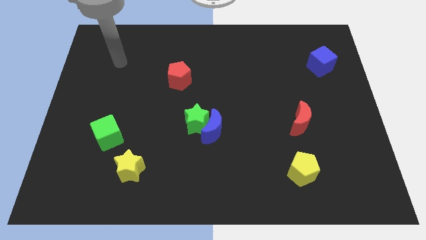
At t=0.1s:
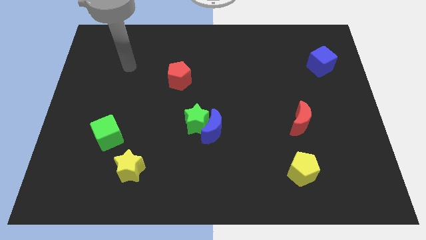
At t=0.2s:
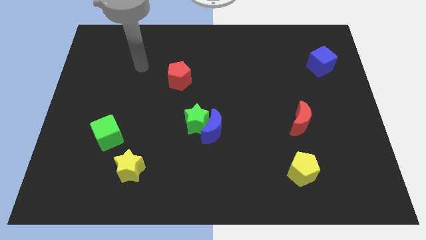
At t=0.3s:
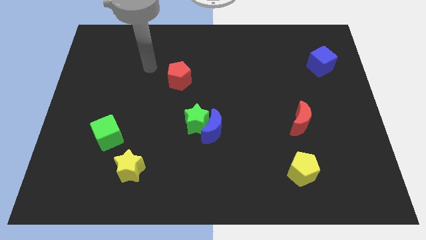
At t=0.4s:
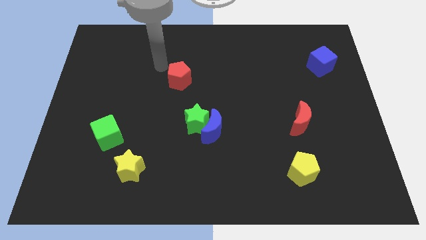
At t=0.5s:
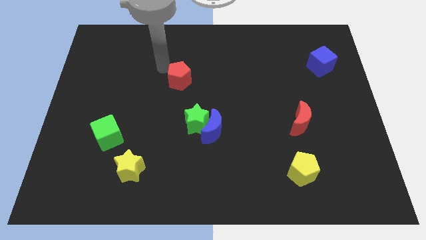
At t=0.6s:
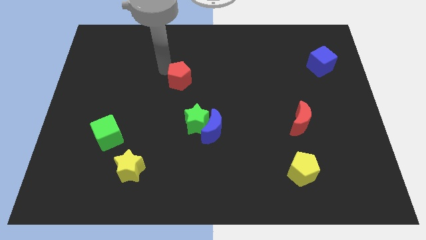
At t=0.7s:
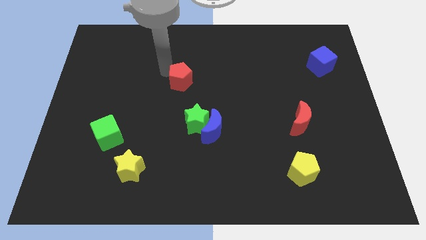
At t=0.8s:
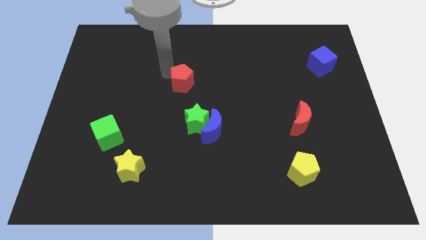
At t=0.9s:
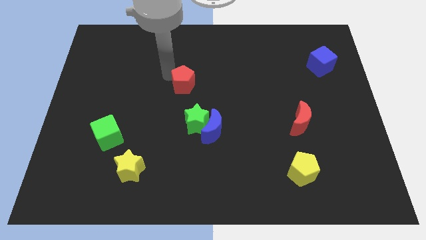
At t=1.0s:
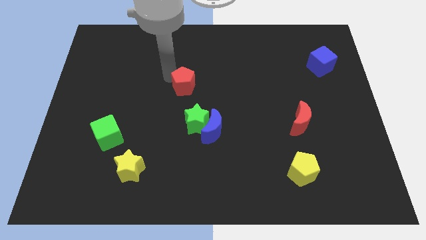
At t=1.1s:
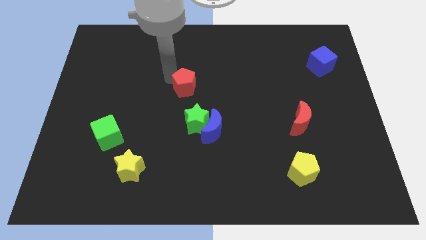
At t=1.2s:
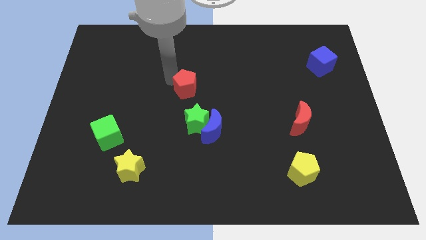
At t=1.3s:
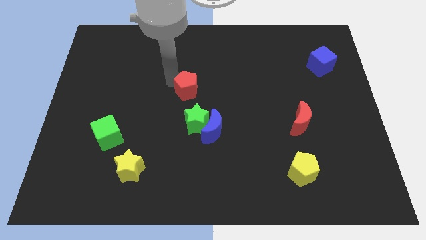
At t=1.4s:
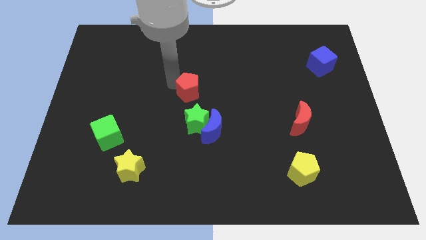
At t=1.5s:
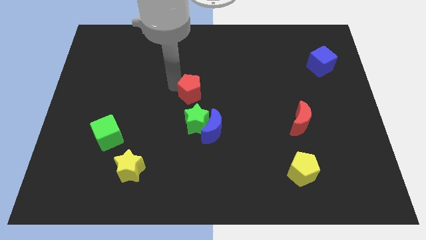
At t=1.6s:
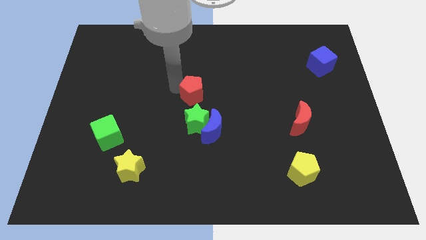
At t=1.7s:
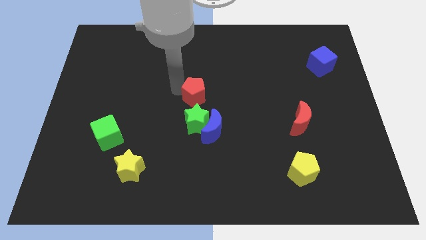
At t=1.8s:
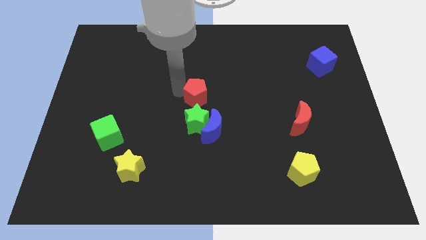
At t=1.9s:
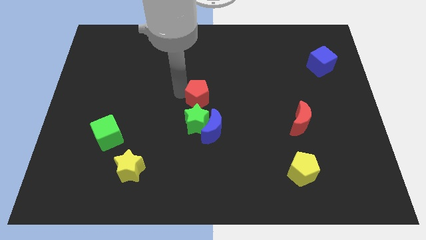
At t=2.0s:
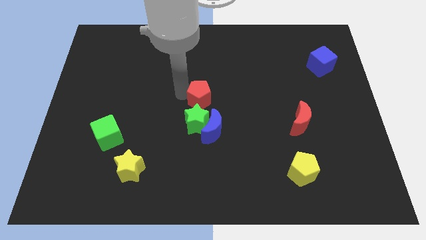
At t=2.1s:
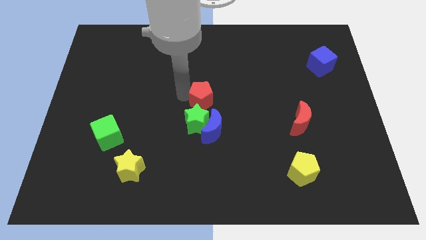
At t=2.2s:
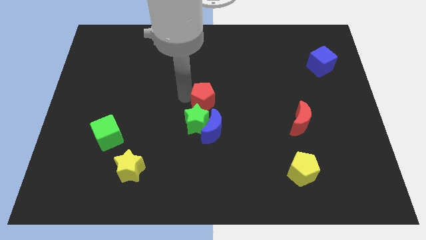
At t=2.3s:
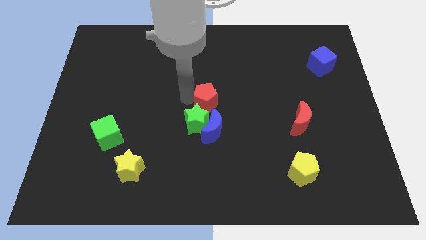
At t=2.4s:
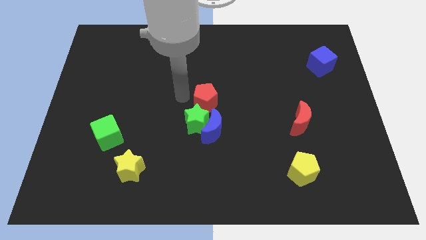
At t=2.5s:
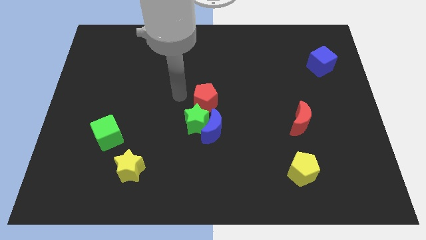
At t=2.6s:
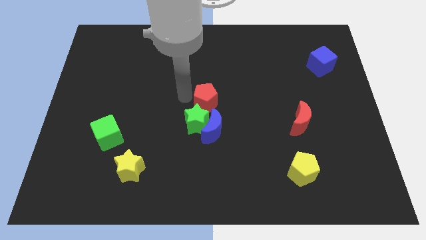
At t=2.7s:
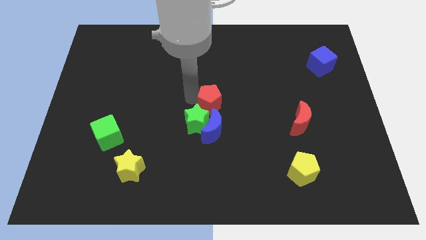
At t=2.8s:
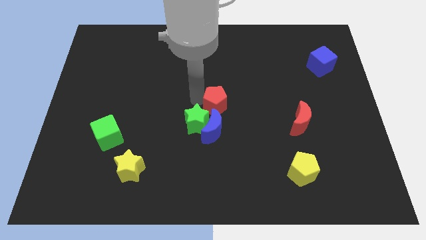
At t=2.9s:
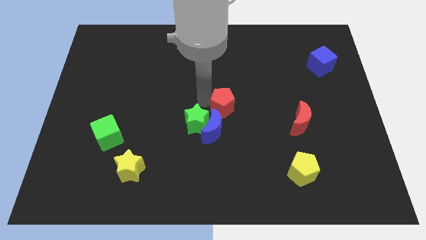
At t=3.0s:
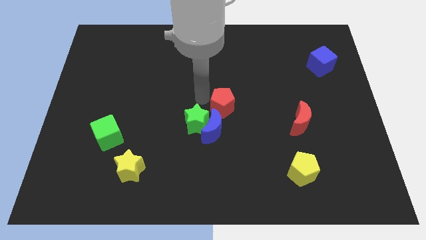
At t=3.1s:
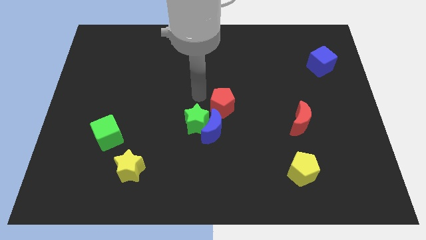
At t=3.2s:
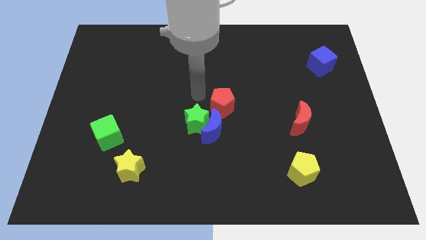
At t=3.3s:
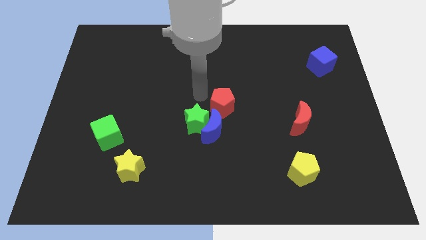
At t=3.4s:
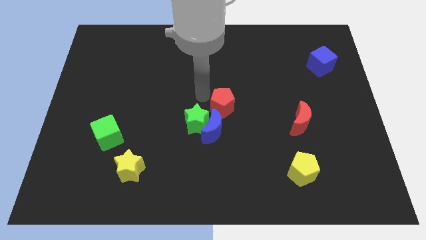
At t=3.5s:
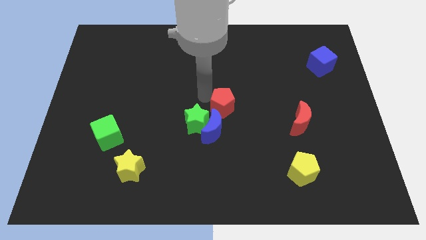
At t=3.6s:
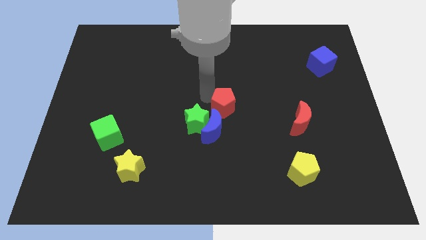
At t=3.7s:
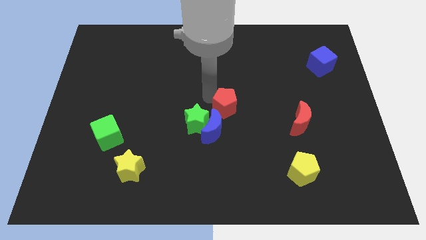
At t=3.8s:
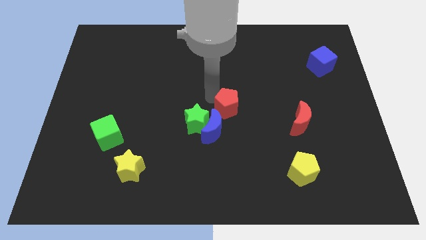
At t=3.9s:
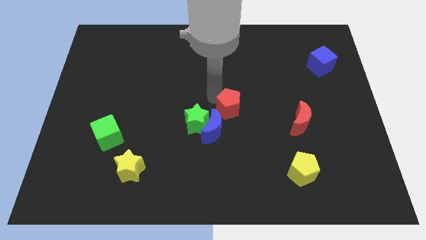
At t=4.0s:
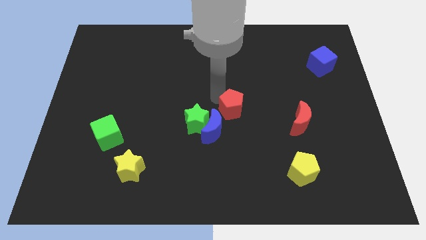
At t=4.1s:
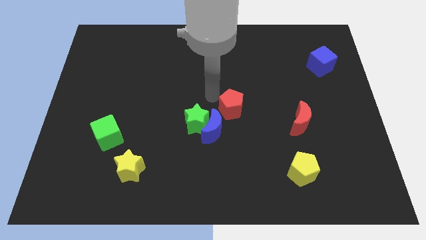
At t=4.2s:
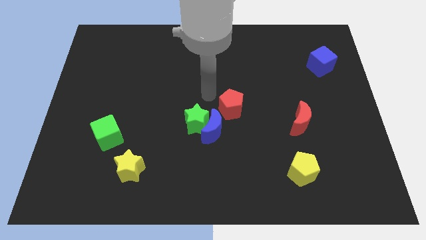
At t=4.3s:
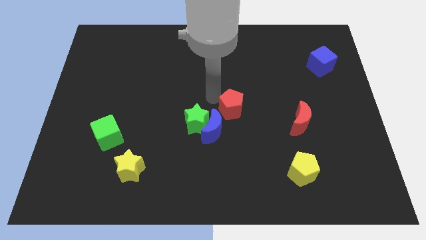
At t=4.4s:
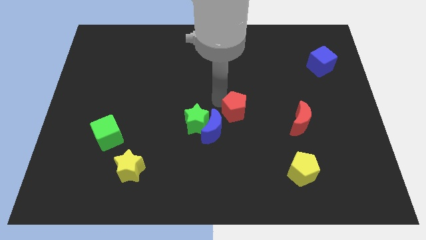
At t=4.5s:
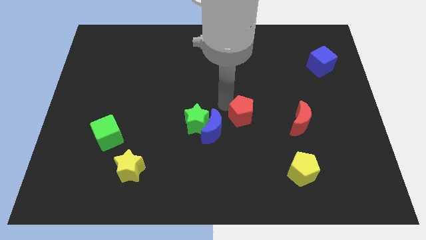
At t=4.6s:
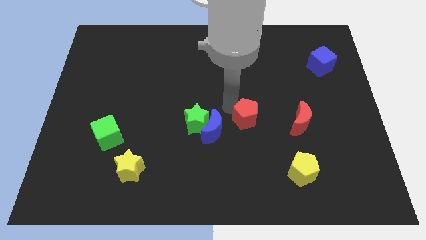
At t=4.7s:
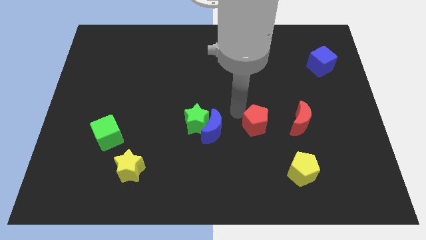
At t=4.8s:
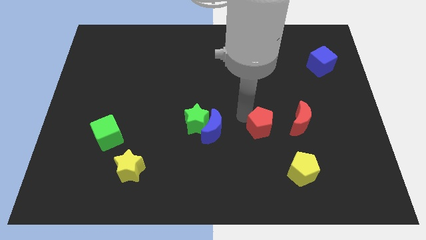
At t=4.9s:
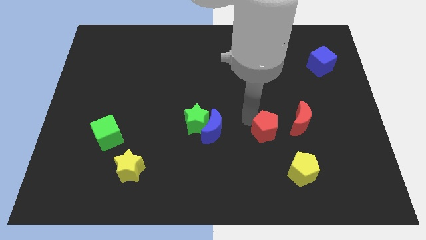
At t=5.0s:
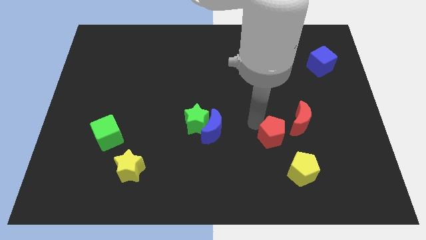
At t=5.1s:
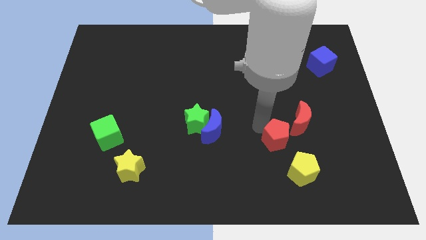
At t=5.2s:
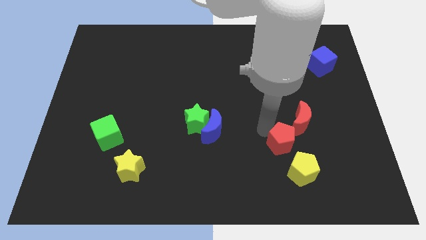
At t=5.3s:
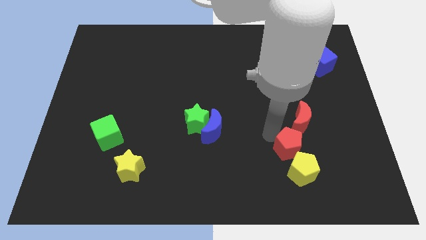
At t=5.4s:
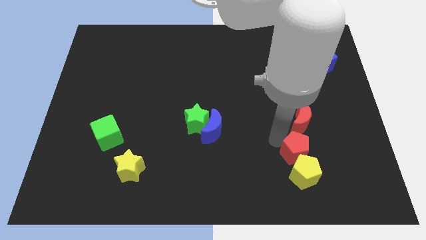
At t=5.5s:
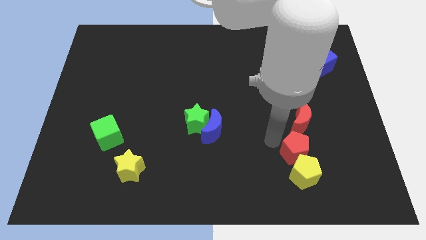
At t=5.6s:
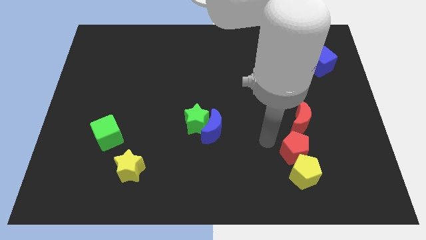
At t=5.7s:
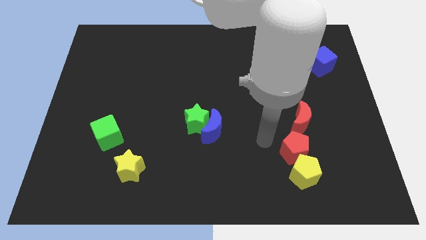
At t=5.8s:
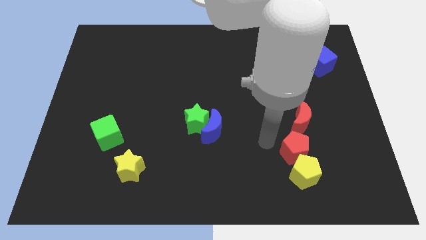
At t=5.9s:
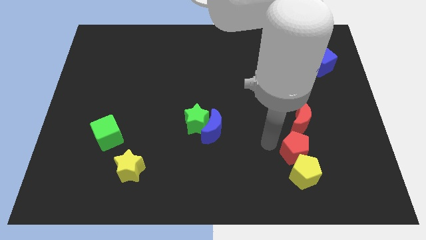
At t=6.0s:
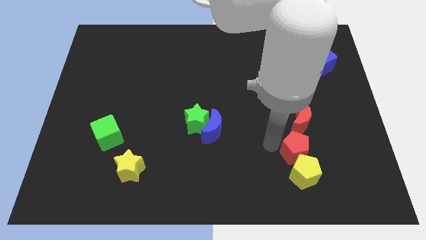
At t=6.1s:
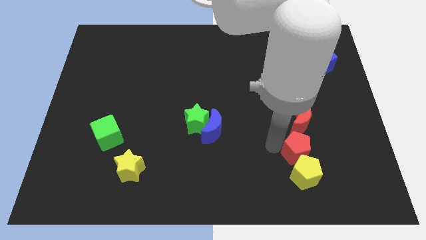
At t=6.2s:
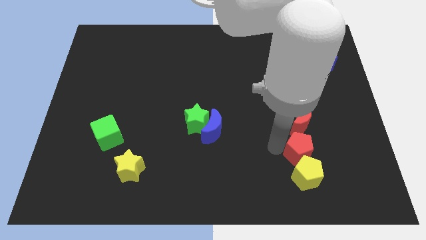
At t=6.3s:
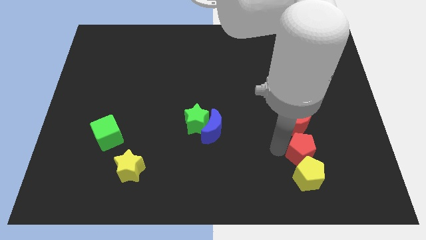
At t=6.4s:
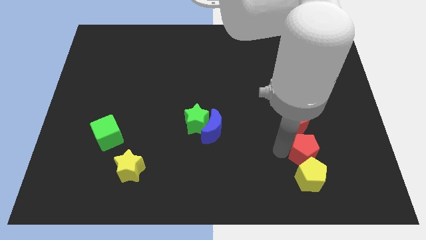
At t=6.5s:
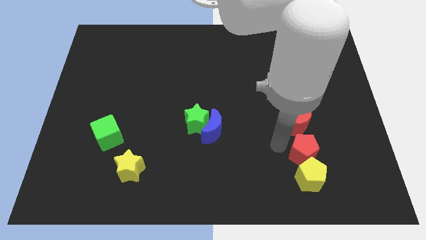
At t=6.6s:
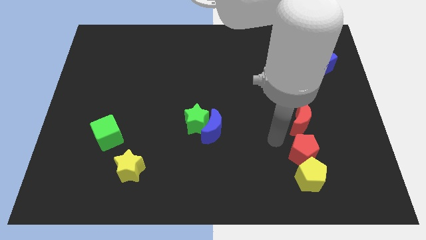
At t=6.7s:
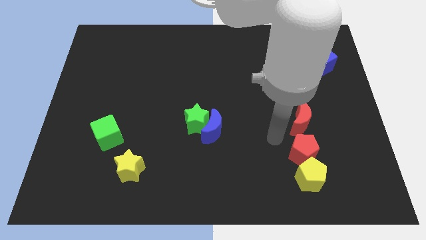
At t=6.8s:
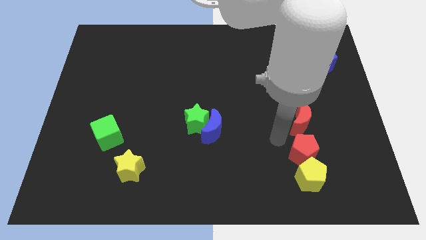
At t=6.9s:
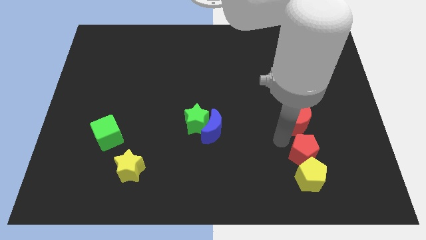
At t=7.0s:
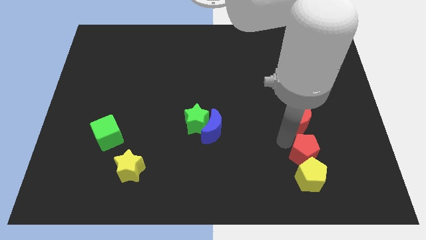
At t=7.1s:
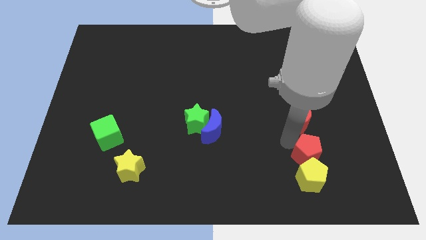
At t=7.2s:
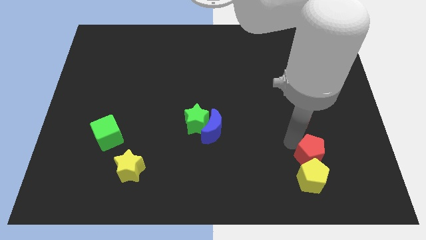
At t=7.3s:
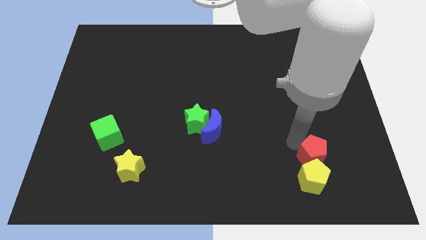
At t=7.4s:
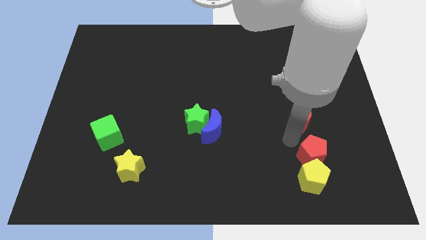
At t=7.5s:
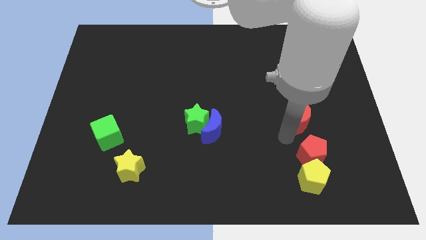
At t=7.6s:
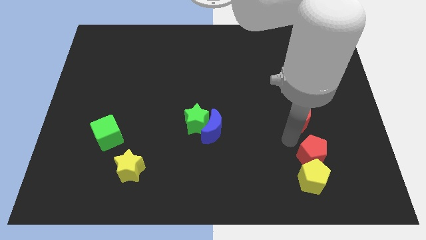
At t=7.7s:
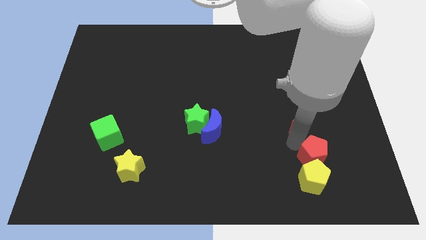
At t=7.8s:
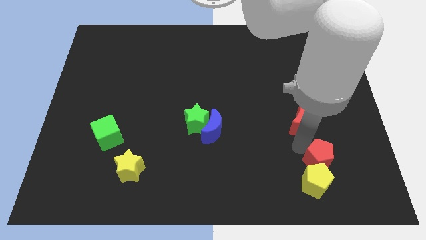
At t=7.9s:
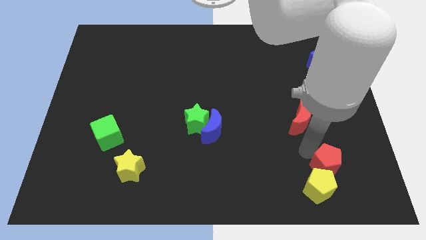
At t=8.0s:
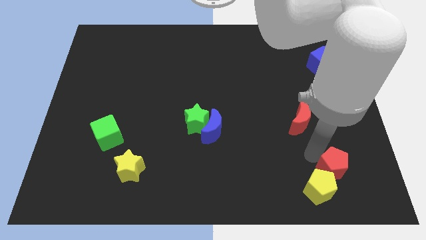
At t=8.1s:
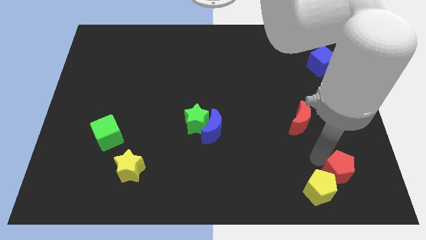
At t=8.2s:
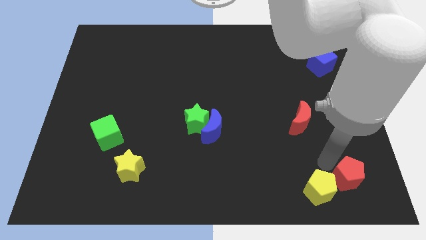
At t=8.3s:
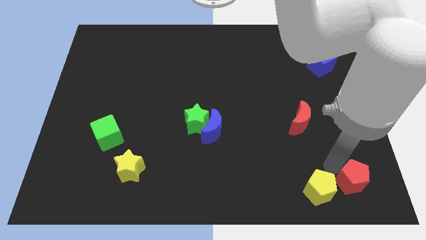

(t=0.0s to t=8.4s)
push the red pentagon to the bottom right corner
